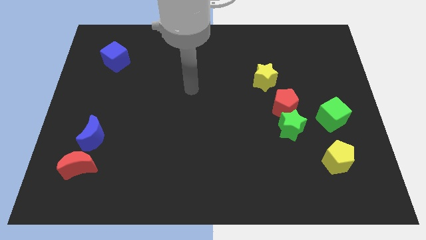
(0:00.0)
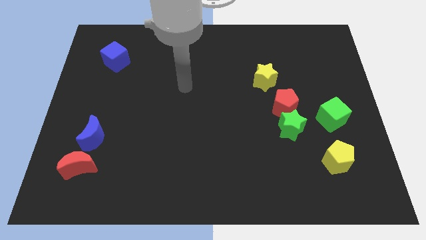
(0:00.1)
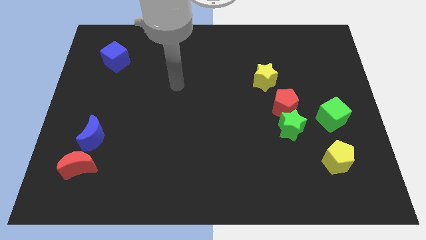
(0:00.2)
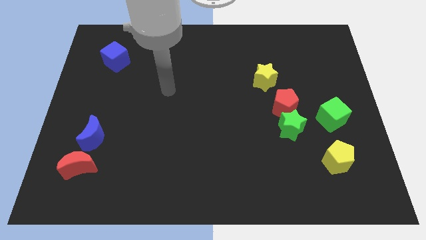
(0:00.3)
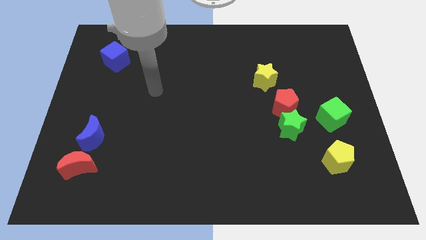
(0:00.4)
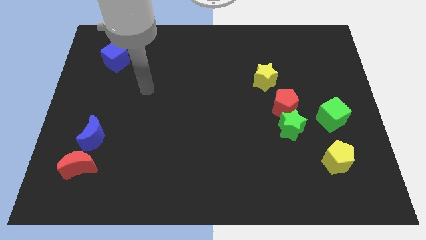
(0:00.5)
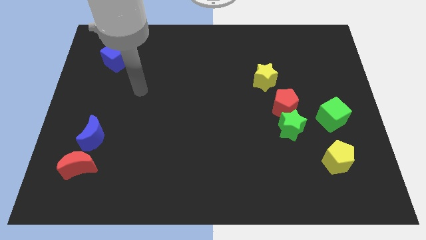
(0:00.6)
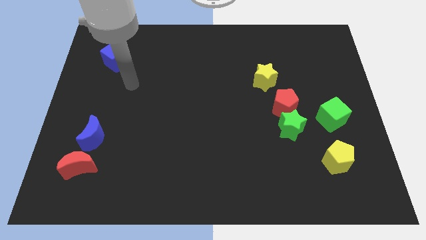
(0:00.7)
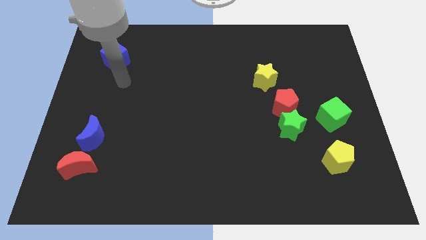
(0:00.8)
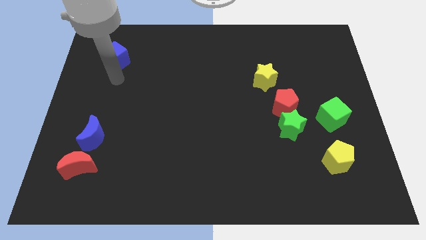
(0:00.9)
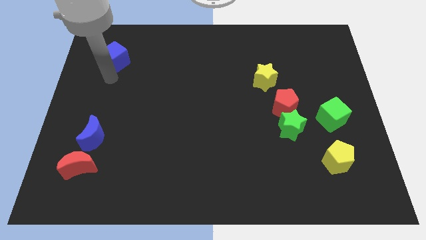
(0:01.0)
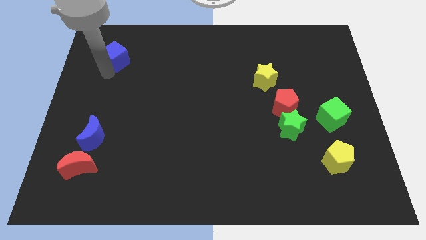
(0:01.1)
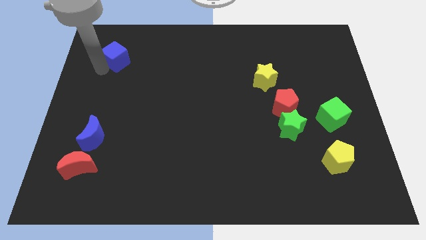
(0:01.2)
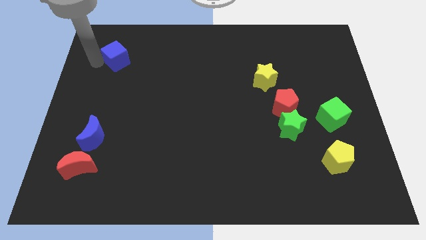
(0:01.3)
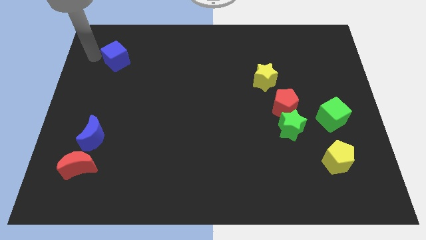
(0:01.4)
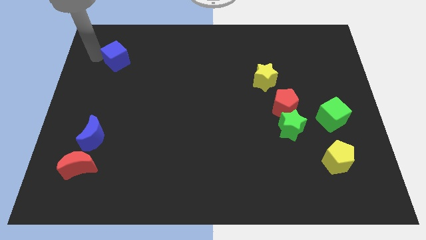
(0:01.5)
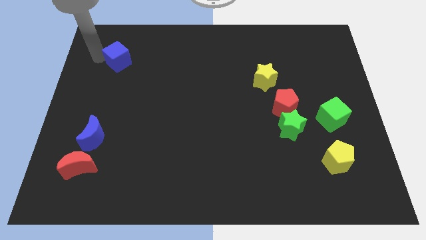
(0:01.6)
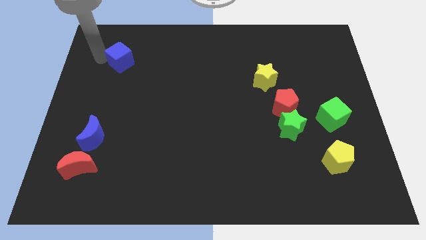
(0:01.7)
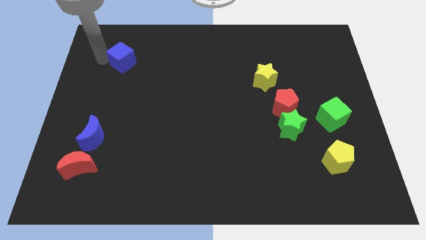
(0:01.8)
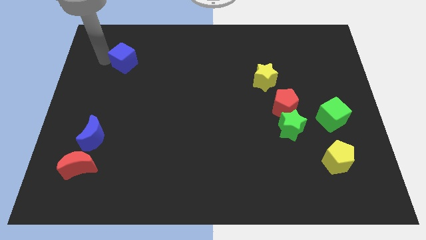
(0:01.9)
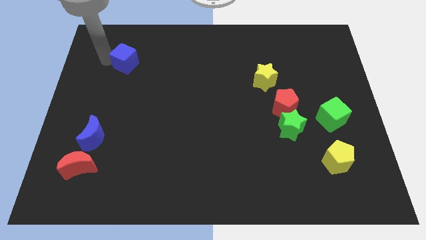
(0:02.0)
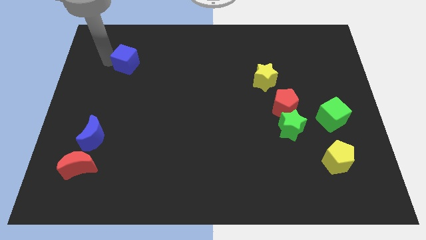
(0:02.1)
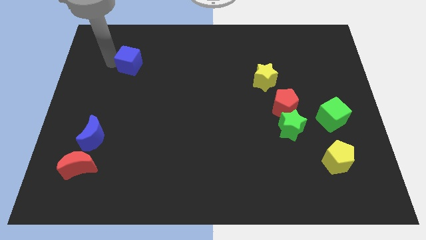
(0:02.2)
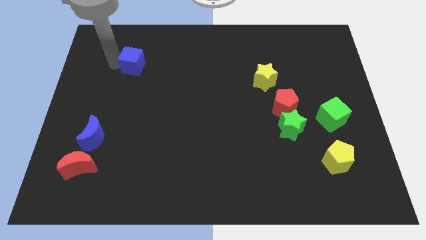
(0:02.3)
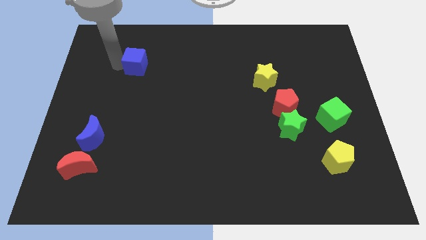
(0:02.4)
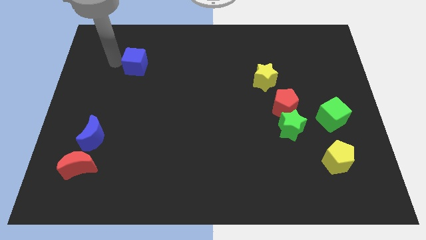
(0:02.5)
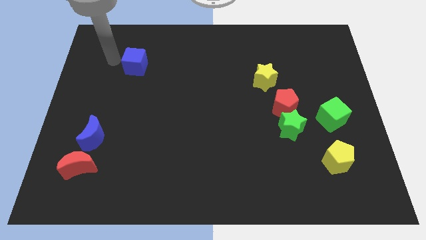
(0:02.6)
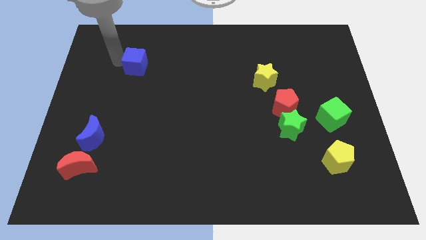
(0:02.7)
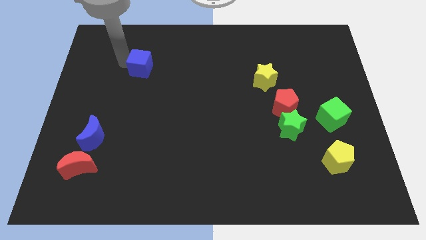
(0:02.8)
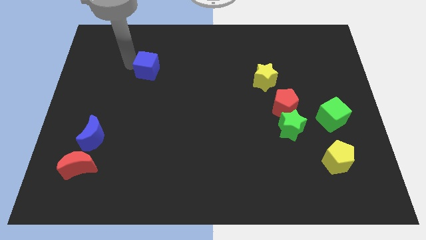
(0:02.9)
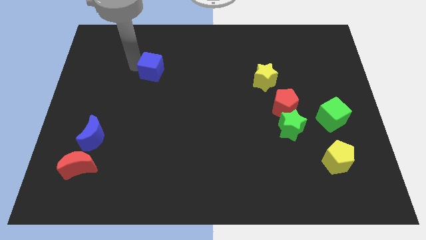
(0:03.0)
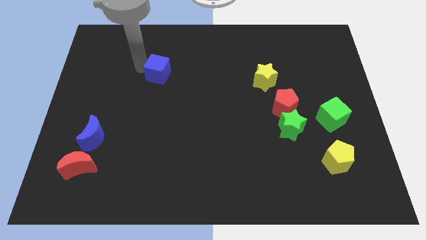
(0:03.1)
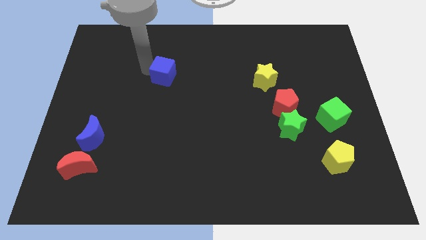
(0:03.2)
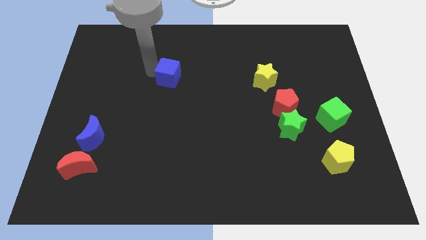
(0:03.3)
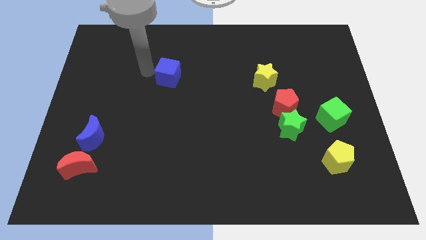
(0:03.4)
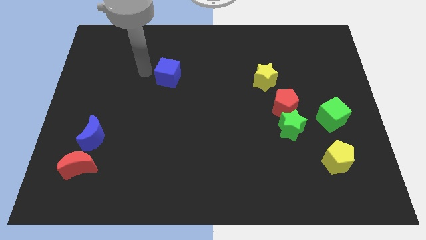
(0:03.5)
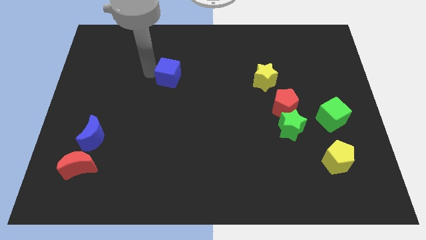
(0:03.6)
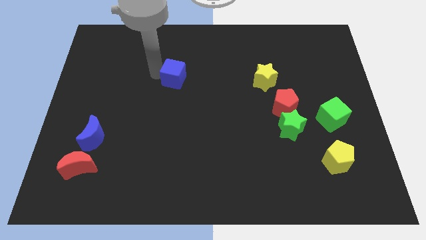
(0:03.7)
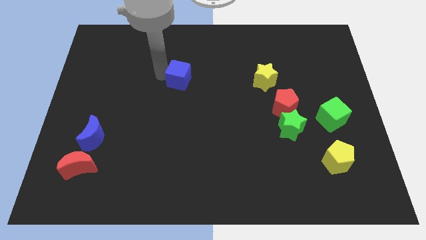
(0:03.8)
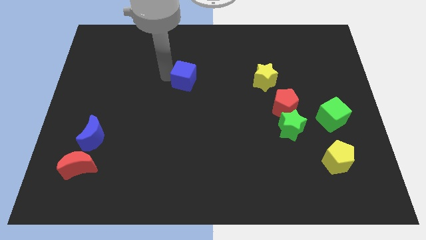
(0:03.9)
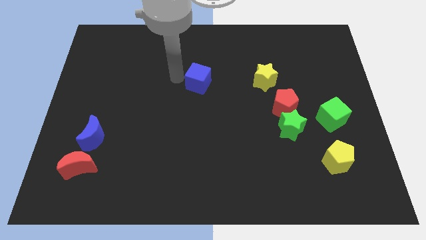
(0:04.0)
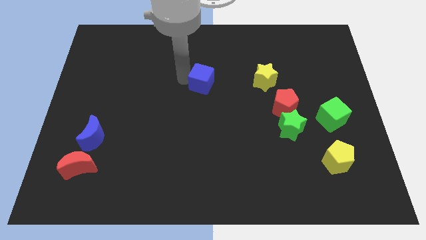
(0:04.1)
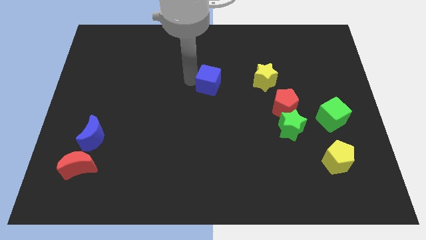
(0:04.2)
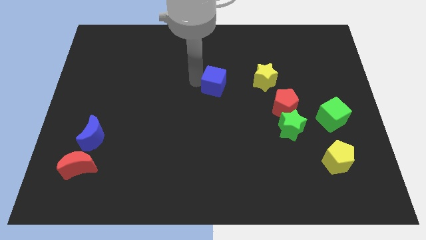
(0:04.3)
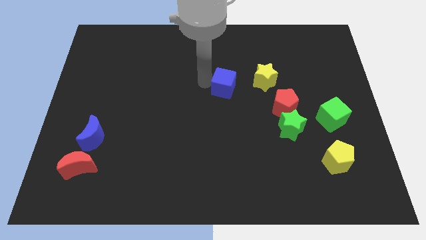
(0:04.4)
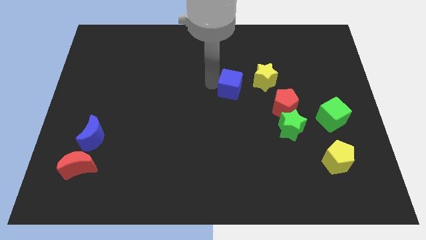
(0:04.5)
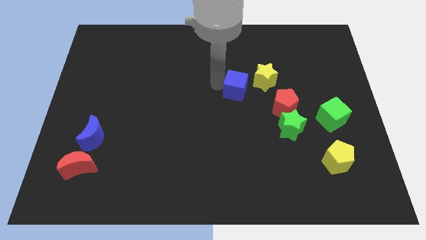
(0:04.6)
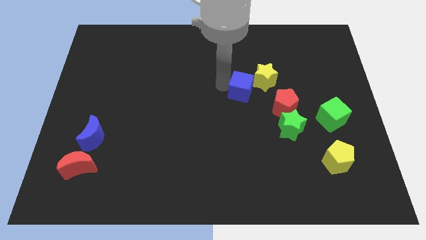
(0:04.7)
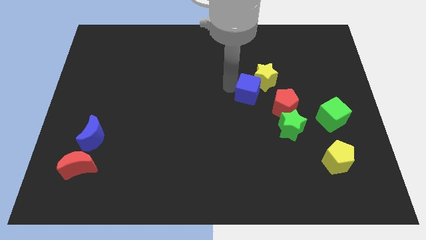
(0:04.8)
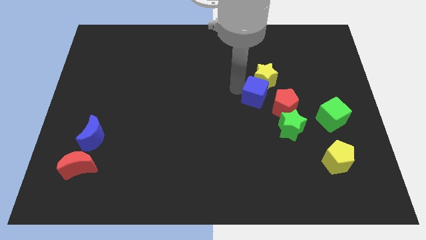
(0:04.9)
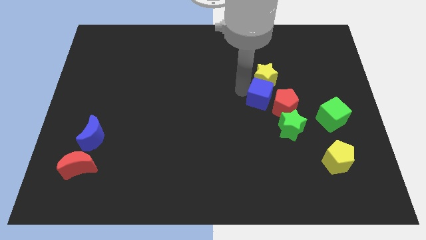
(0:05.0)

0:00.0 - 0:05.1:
put the blue cube close to the red pentagon

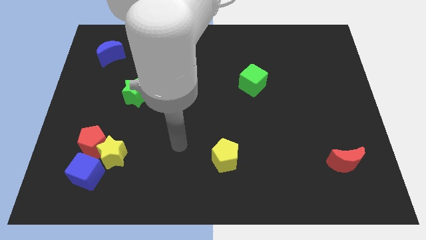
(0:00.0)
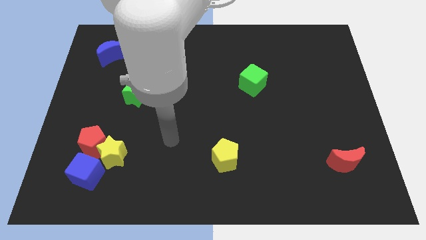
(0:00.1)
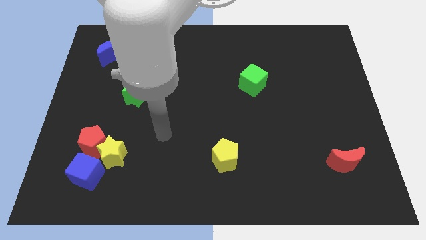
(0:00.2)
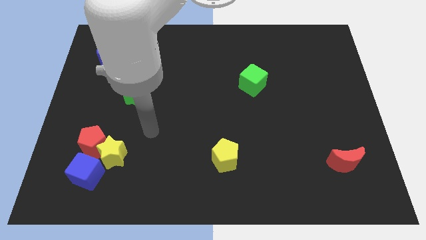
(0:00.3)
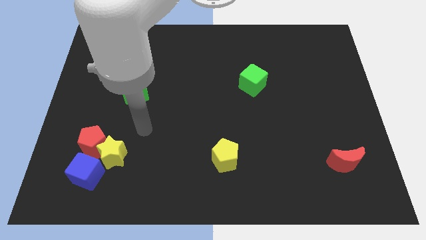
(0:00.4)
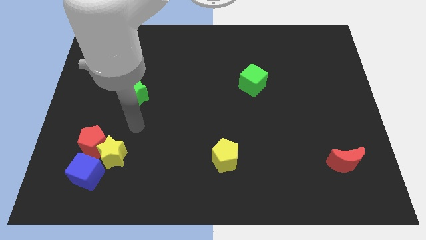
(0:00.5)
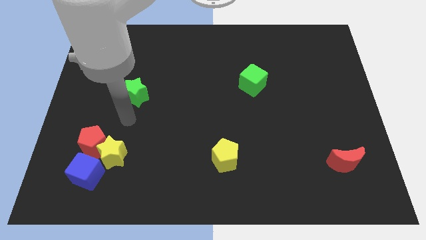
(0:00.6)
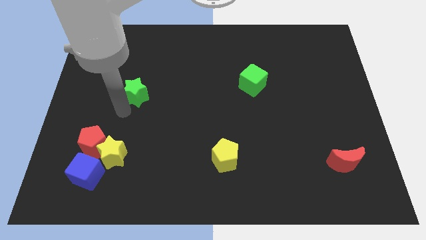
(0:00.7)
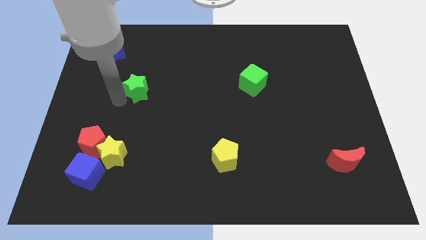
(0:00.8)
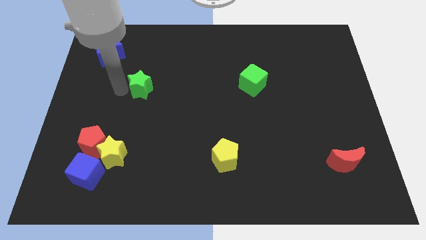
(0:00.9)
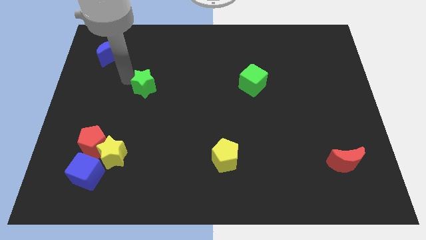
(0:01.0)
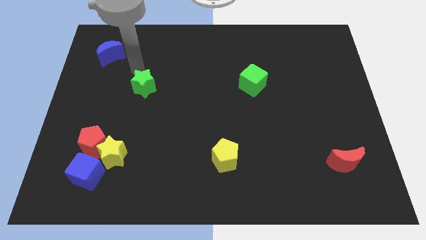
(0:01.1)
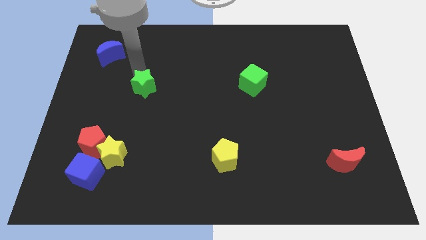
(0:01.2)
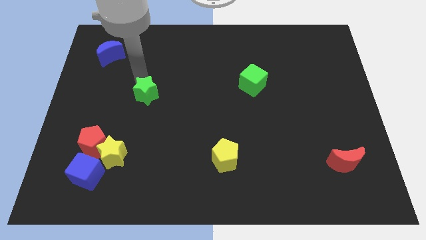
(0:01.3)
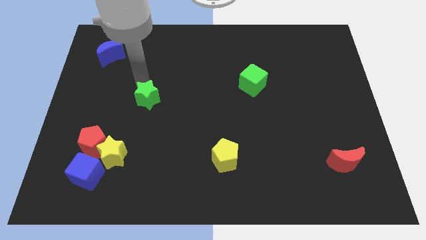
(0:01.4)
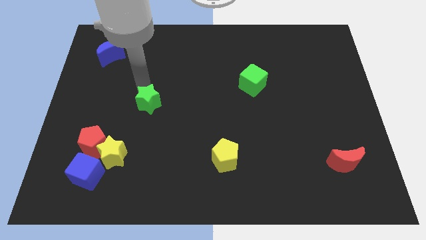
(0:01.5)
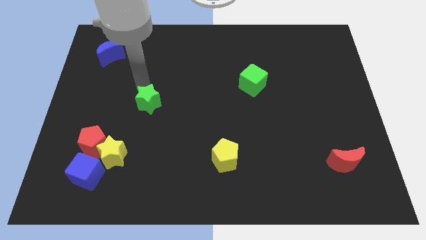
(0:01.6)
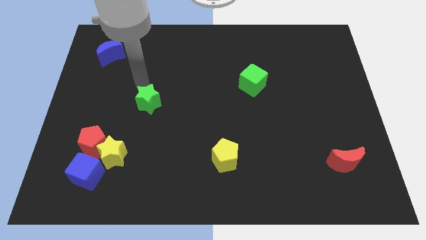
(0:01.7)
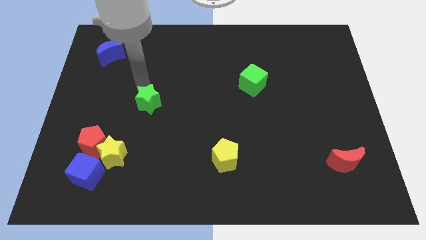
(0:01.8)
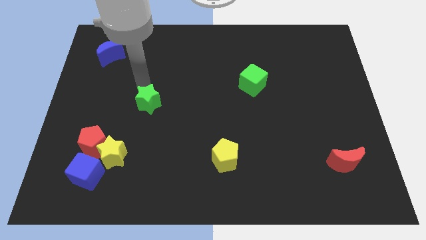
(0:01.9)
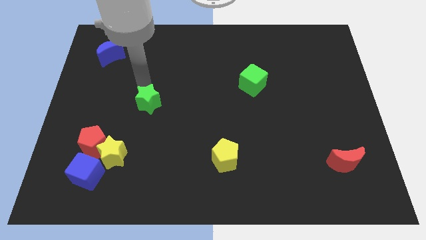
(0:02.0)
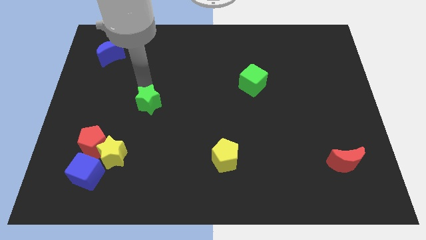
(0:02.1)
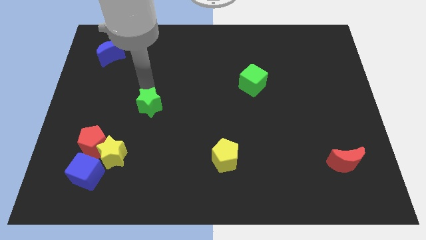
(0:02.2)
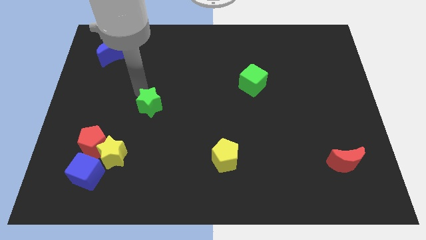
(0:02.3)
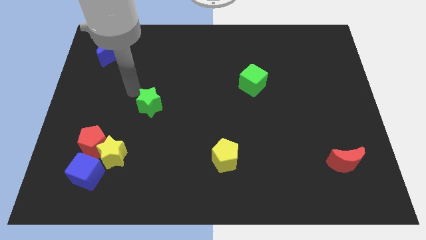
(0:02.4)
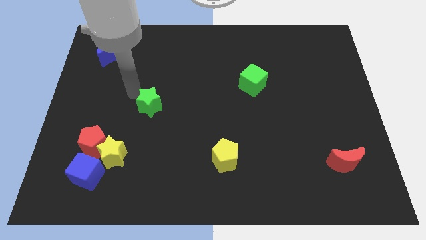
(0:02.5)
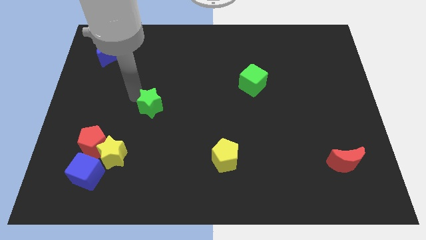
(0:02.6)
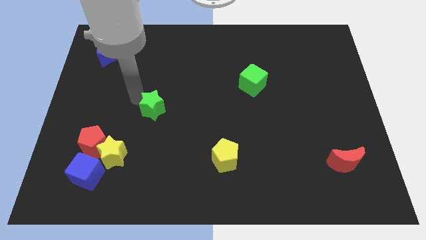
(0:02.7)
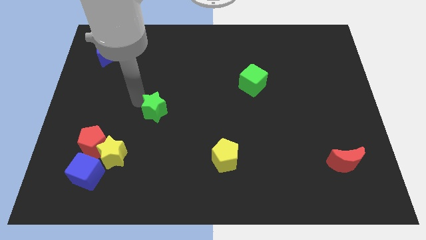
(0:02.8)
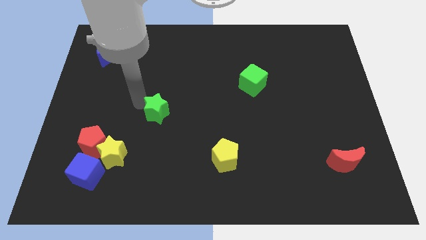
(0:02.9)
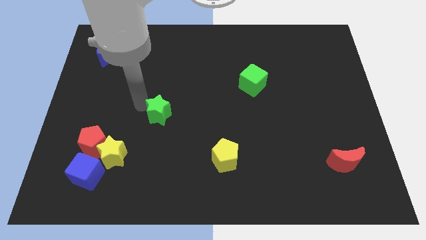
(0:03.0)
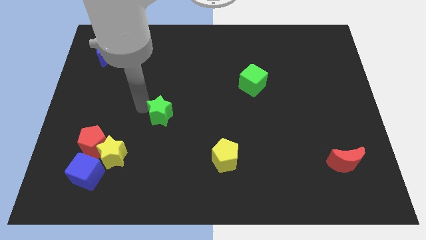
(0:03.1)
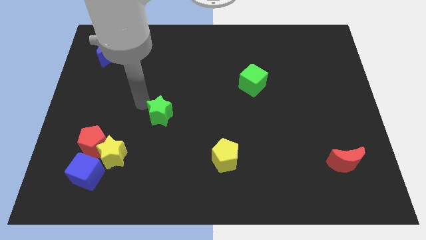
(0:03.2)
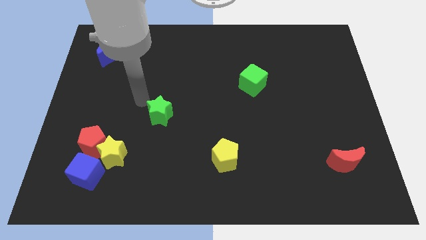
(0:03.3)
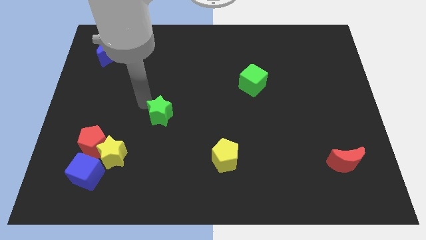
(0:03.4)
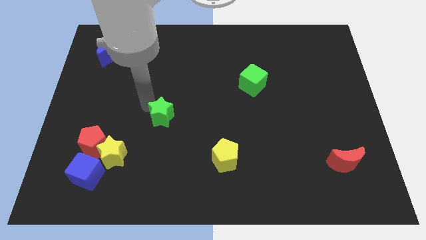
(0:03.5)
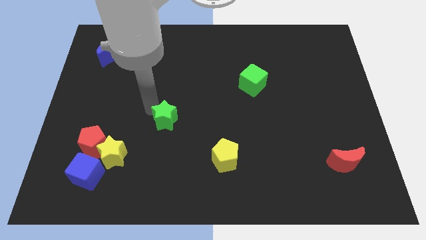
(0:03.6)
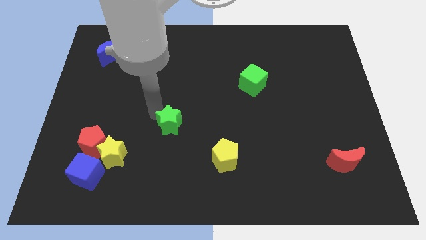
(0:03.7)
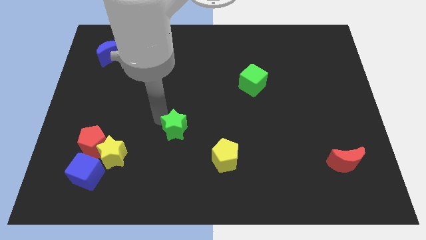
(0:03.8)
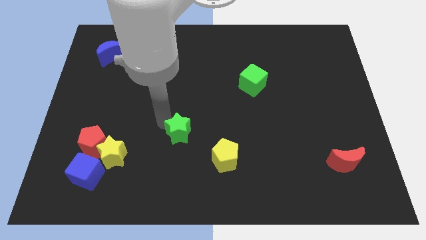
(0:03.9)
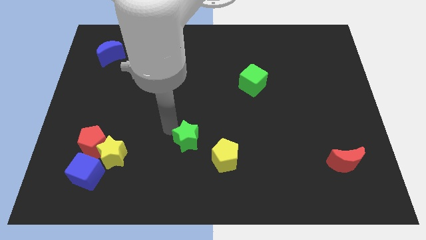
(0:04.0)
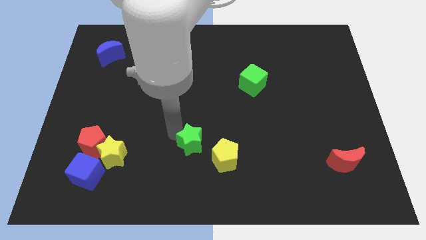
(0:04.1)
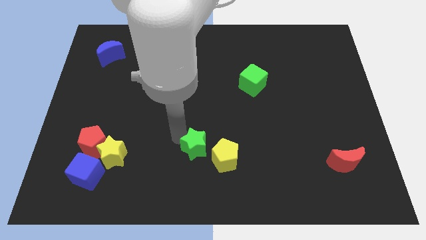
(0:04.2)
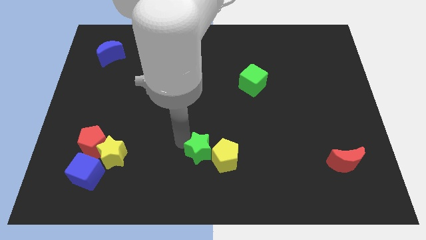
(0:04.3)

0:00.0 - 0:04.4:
slide the green star next to the yellow pentagon
